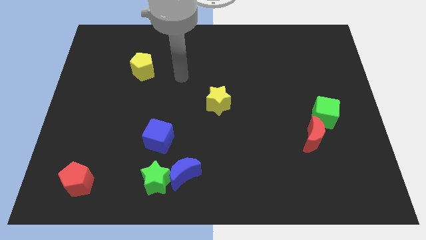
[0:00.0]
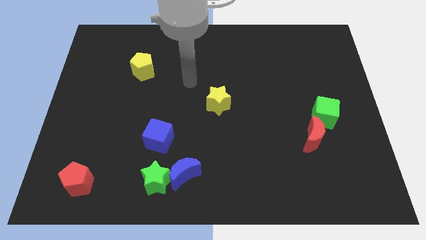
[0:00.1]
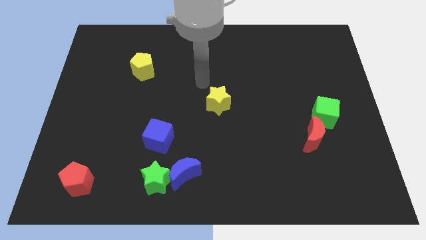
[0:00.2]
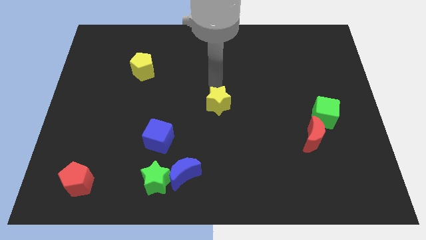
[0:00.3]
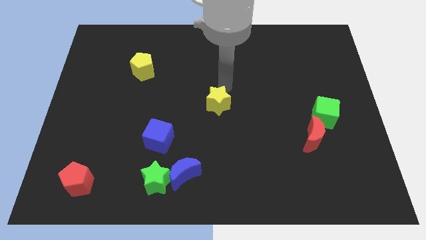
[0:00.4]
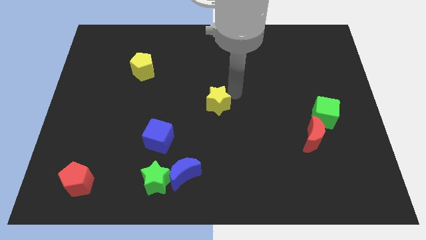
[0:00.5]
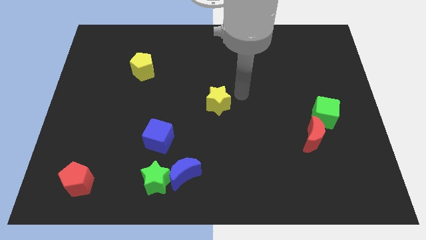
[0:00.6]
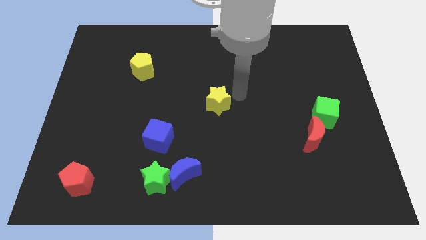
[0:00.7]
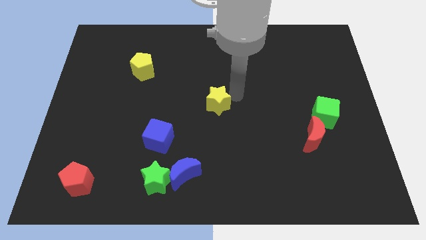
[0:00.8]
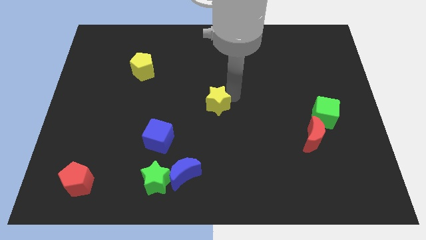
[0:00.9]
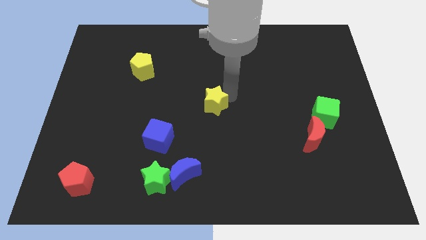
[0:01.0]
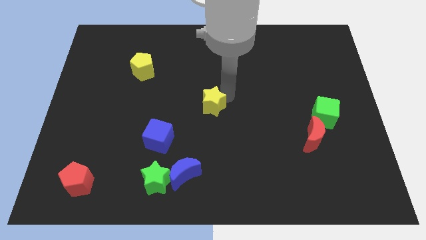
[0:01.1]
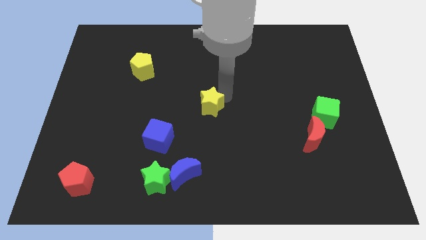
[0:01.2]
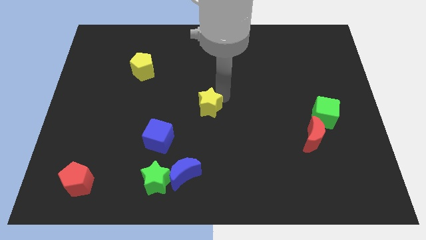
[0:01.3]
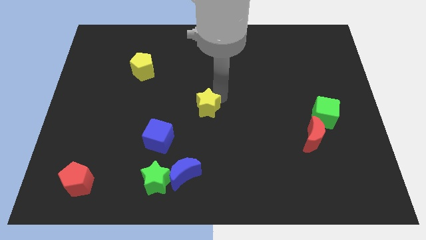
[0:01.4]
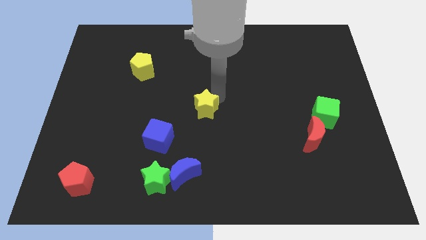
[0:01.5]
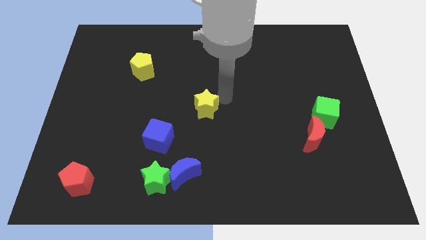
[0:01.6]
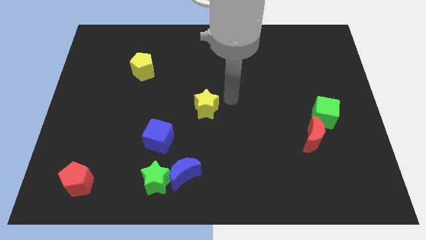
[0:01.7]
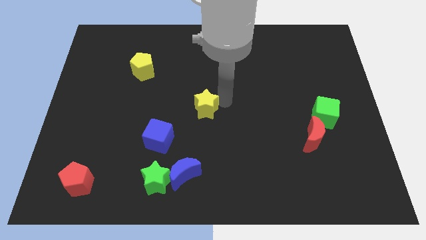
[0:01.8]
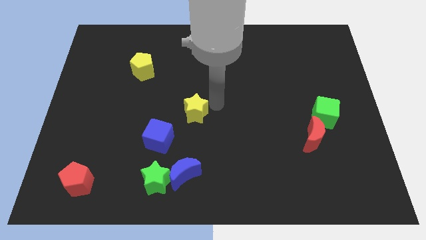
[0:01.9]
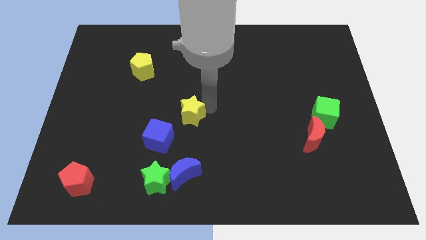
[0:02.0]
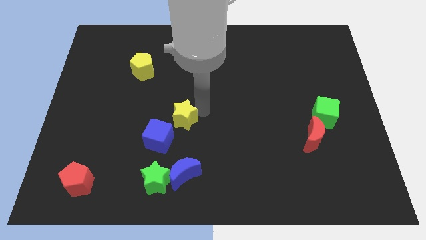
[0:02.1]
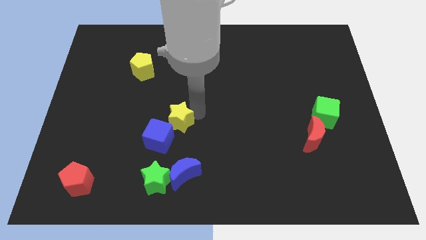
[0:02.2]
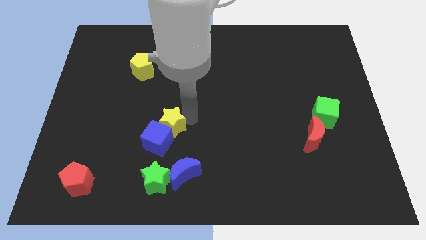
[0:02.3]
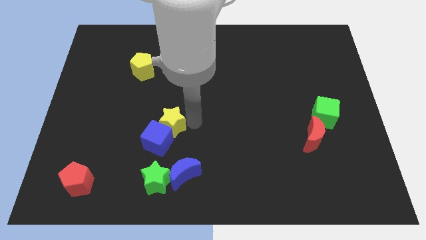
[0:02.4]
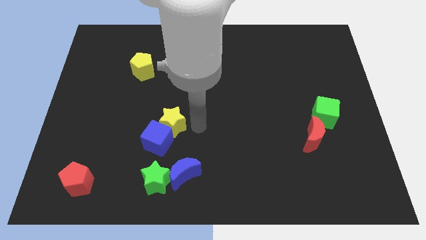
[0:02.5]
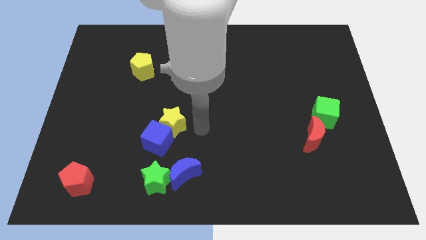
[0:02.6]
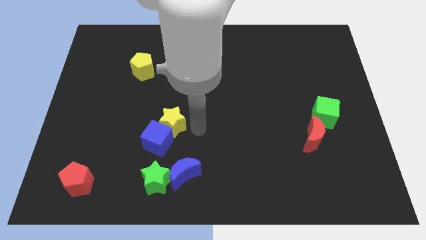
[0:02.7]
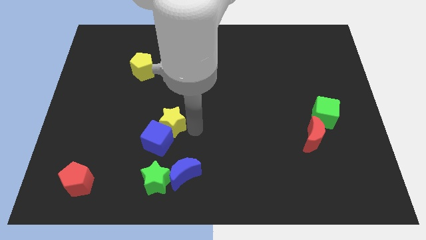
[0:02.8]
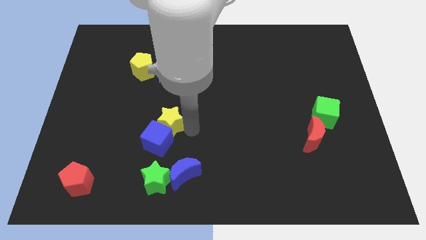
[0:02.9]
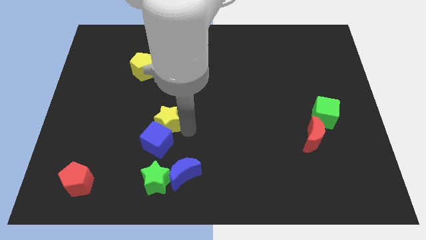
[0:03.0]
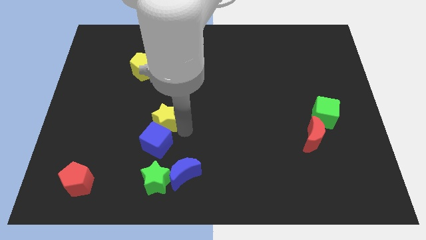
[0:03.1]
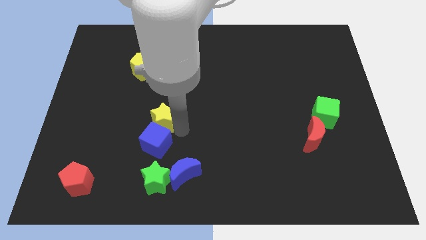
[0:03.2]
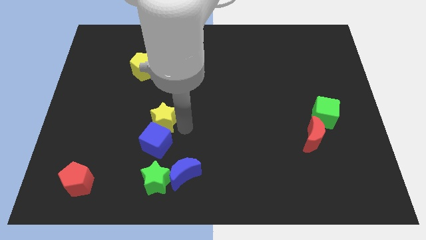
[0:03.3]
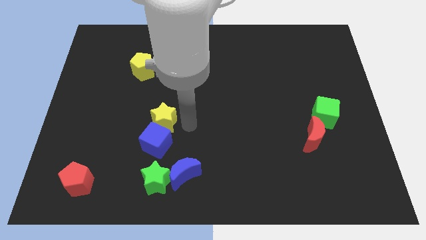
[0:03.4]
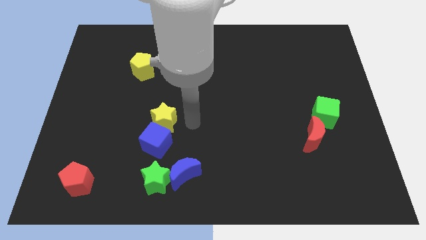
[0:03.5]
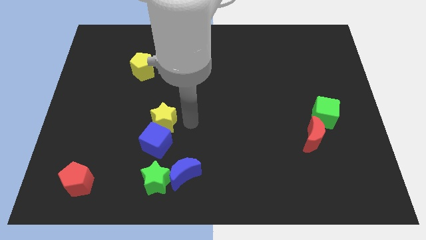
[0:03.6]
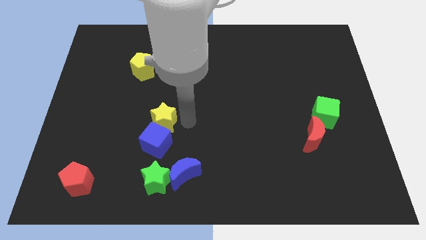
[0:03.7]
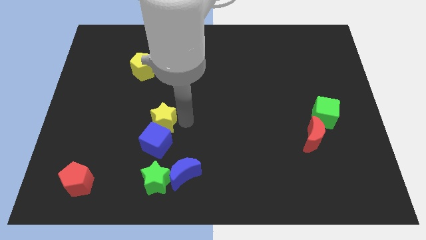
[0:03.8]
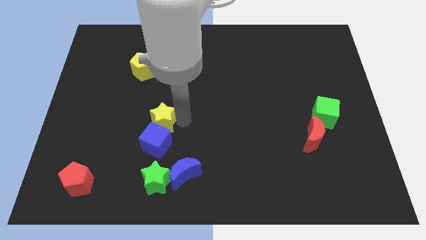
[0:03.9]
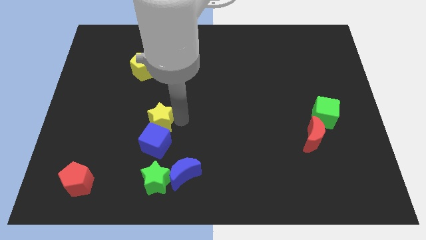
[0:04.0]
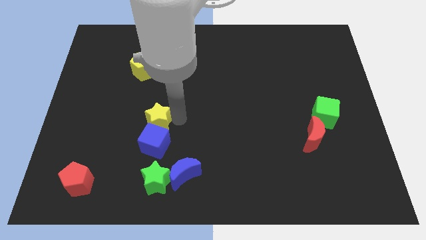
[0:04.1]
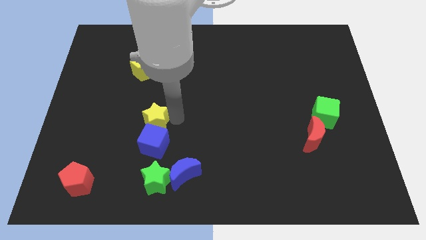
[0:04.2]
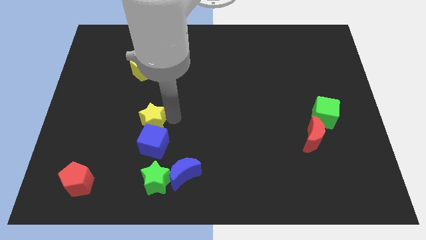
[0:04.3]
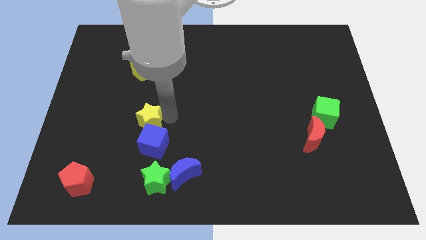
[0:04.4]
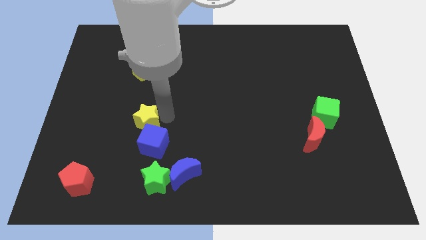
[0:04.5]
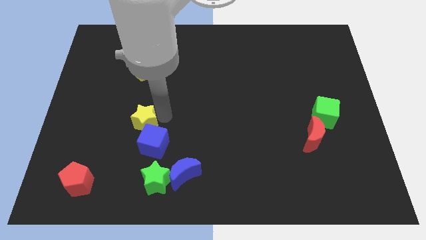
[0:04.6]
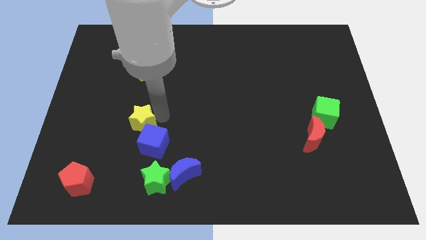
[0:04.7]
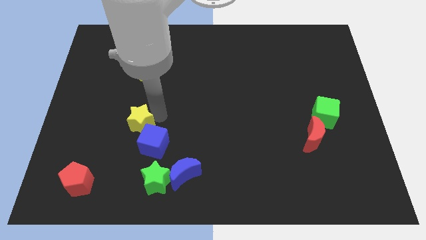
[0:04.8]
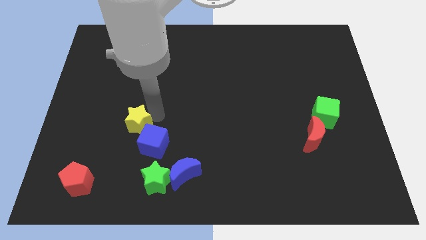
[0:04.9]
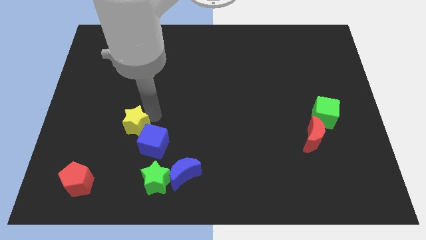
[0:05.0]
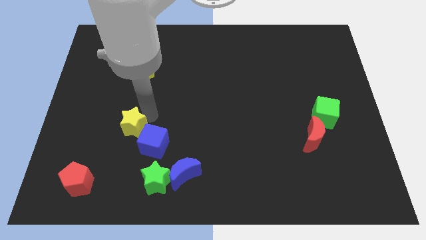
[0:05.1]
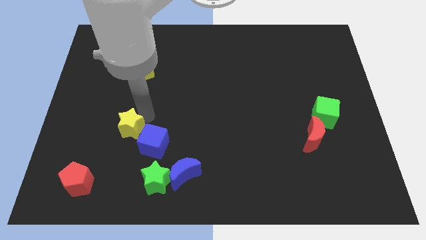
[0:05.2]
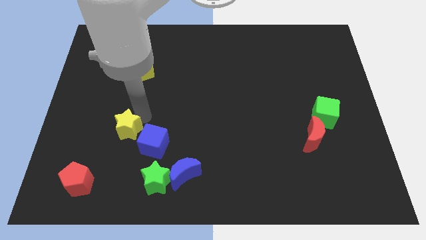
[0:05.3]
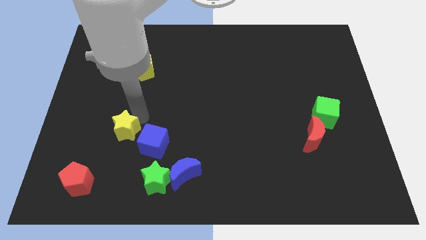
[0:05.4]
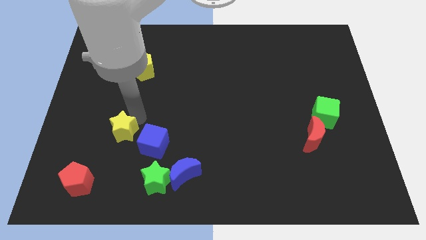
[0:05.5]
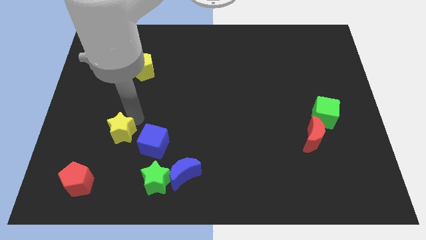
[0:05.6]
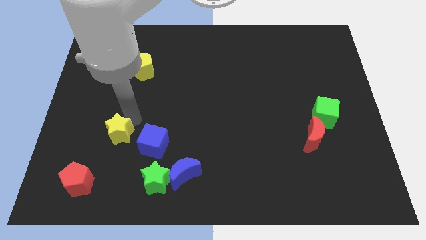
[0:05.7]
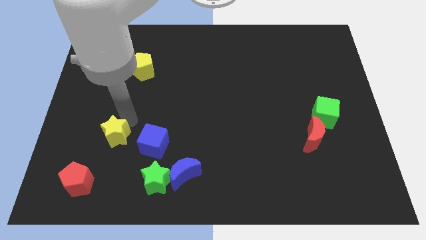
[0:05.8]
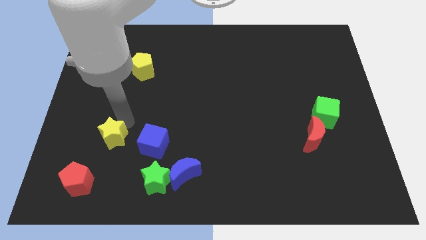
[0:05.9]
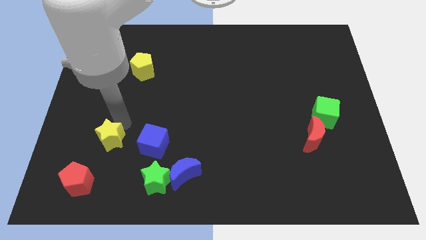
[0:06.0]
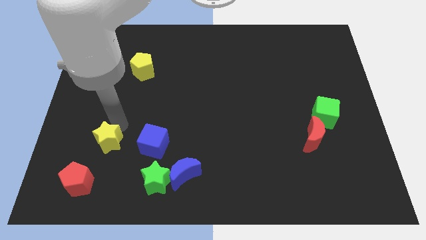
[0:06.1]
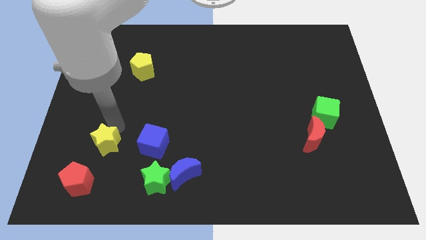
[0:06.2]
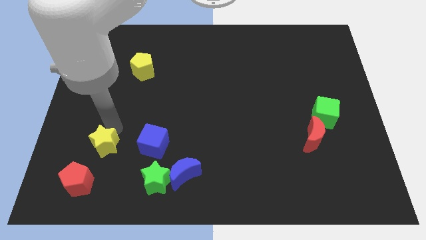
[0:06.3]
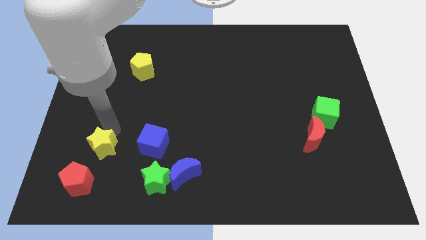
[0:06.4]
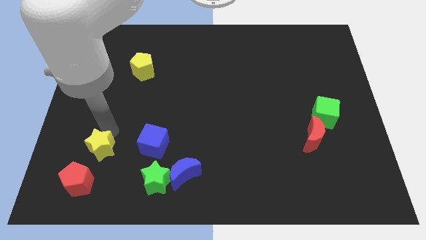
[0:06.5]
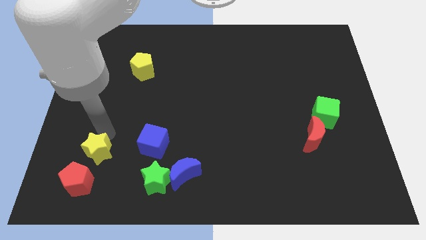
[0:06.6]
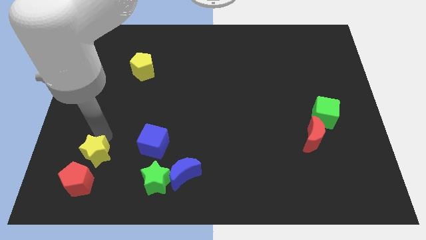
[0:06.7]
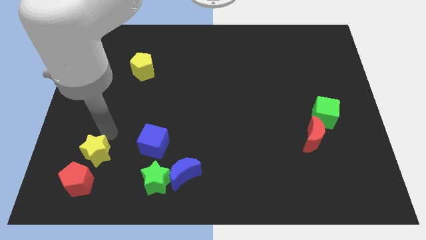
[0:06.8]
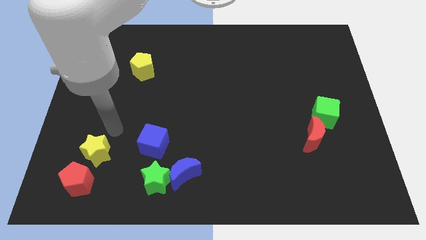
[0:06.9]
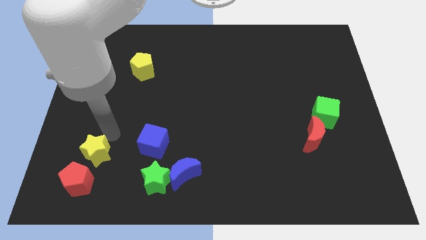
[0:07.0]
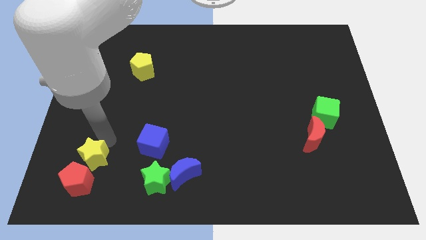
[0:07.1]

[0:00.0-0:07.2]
push the yellow star towards the red pentagon
